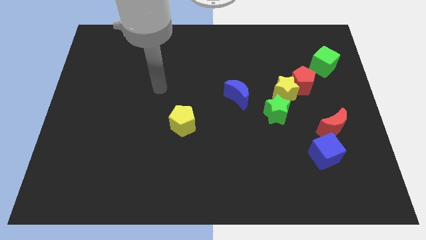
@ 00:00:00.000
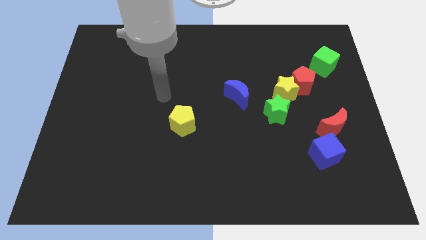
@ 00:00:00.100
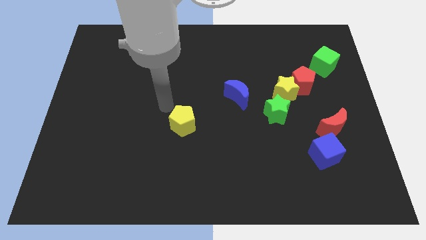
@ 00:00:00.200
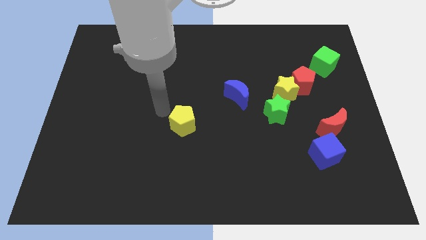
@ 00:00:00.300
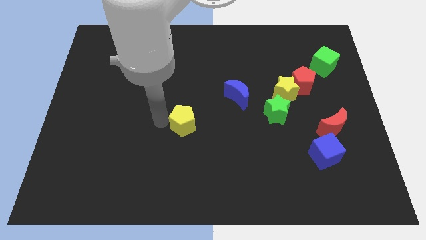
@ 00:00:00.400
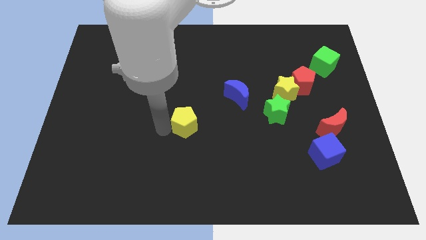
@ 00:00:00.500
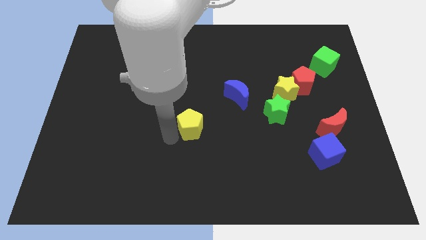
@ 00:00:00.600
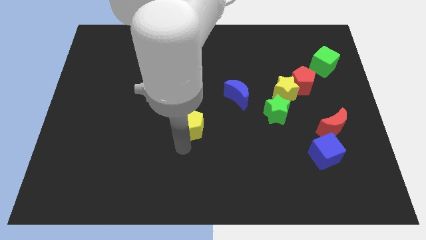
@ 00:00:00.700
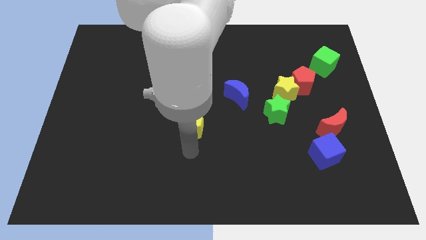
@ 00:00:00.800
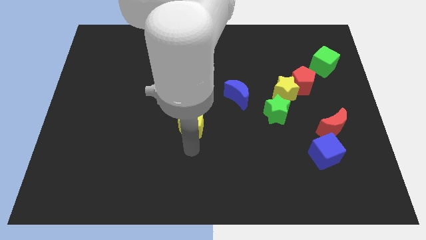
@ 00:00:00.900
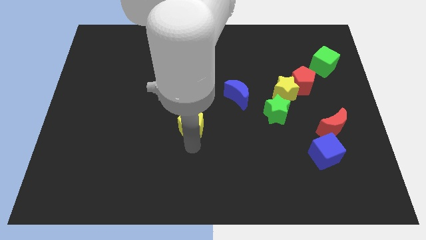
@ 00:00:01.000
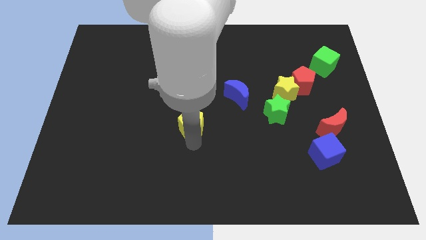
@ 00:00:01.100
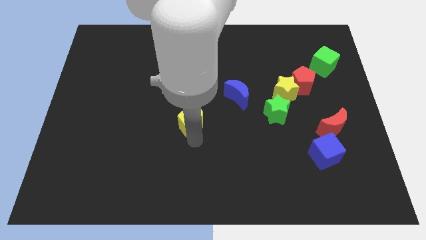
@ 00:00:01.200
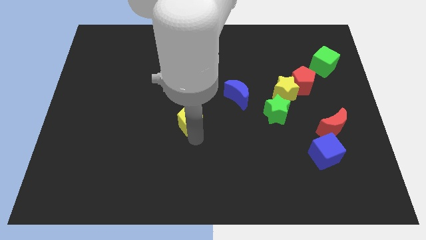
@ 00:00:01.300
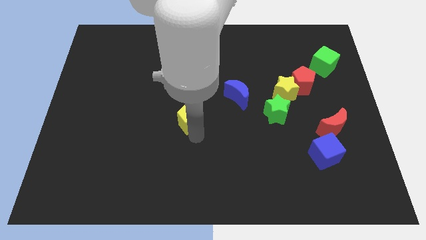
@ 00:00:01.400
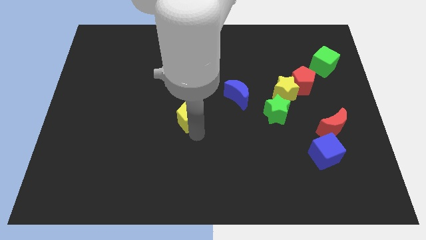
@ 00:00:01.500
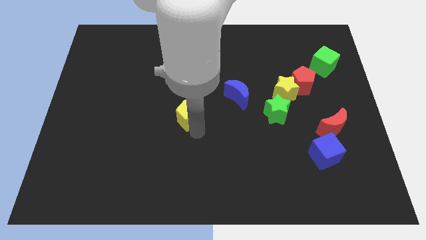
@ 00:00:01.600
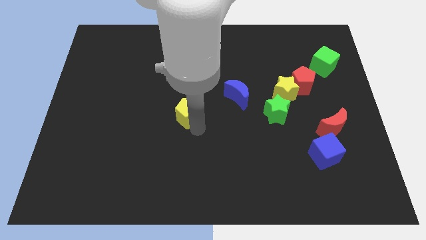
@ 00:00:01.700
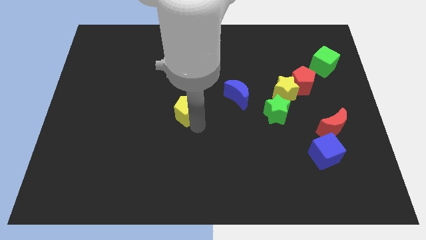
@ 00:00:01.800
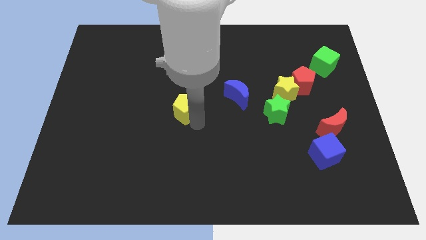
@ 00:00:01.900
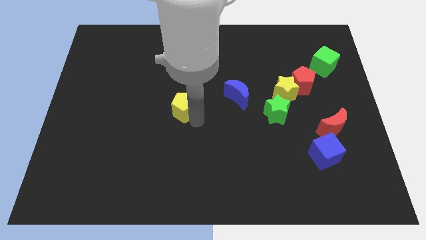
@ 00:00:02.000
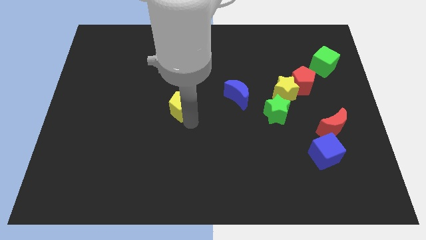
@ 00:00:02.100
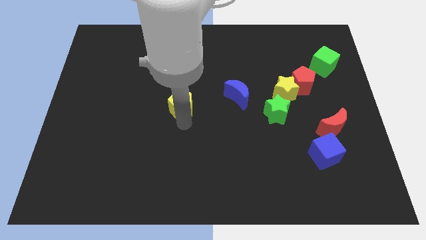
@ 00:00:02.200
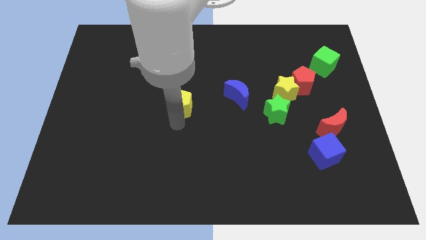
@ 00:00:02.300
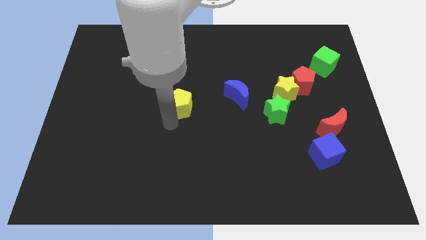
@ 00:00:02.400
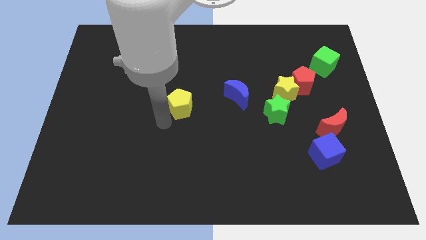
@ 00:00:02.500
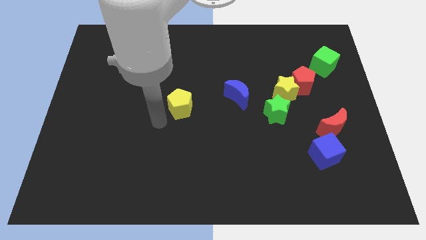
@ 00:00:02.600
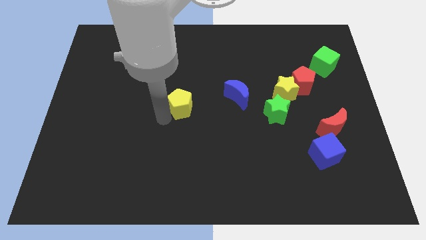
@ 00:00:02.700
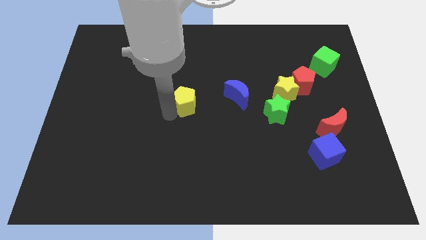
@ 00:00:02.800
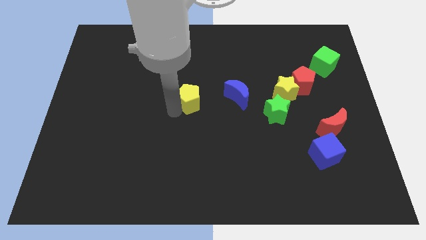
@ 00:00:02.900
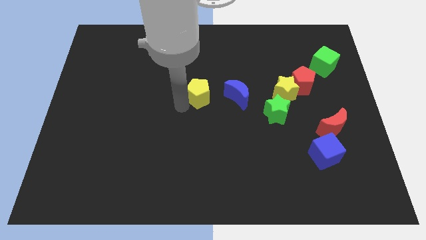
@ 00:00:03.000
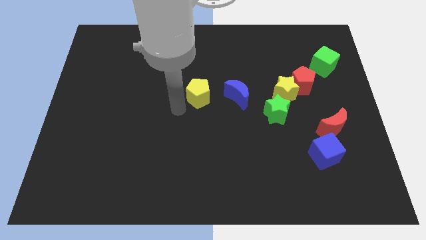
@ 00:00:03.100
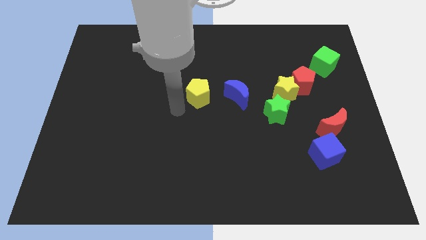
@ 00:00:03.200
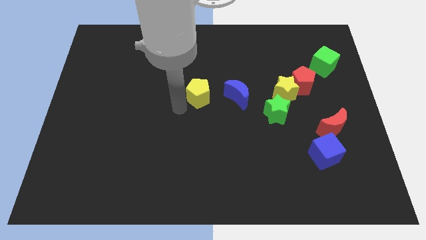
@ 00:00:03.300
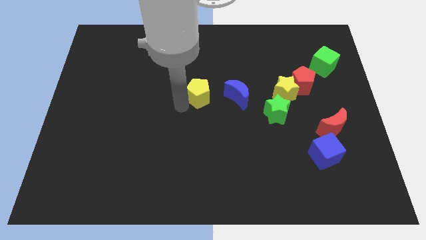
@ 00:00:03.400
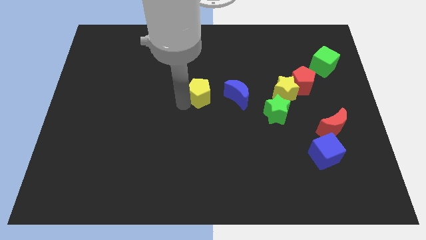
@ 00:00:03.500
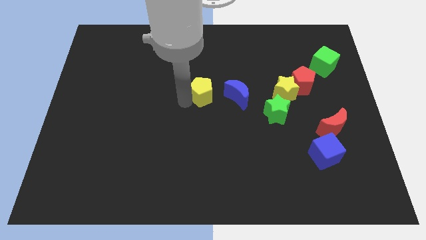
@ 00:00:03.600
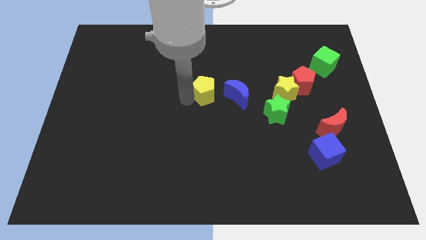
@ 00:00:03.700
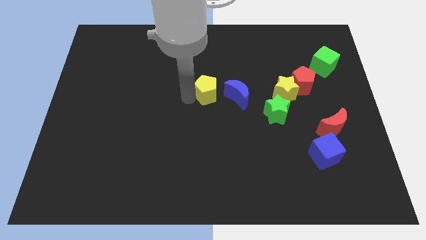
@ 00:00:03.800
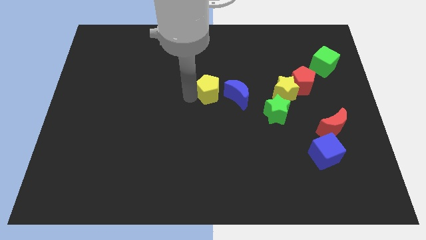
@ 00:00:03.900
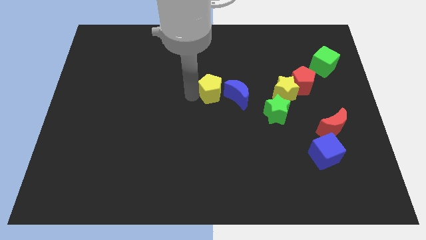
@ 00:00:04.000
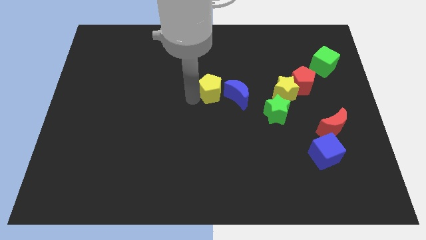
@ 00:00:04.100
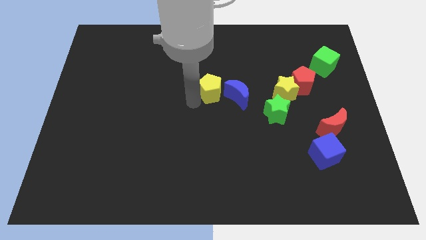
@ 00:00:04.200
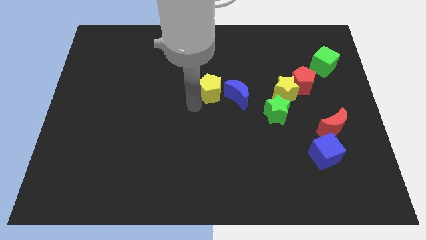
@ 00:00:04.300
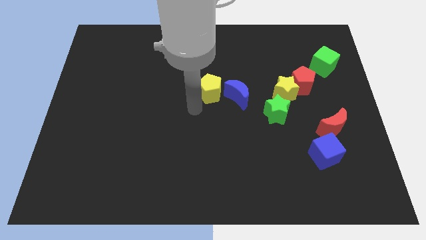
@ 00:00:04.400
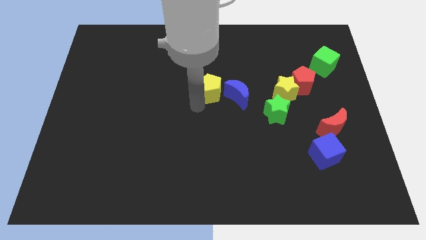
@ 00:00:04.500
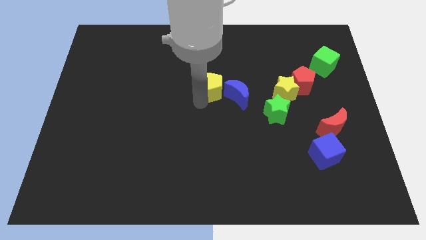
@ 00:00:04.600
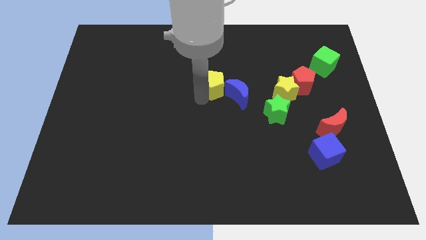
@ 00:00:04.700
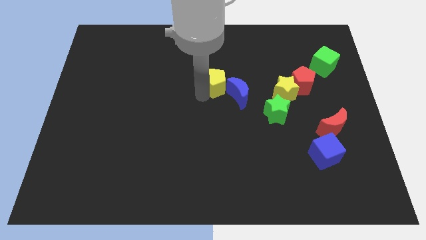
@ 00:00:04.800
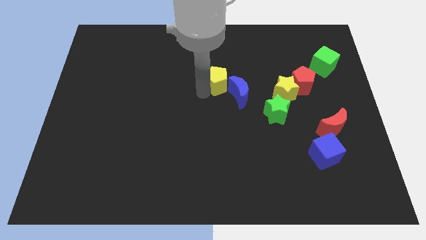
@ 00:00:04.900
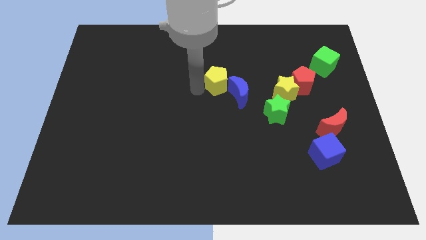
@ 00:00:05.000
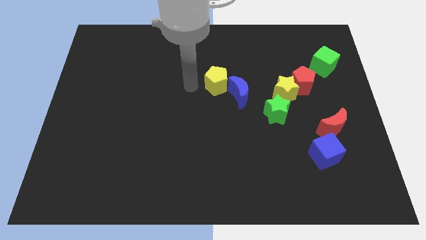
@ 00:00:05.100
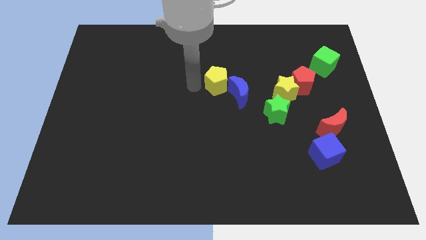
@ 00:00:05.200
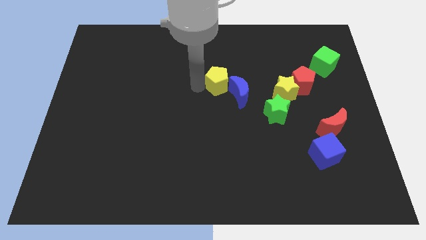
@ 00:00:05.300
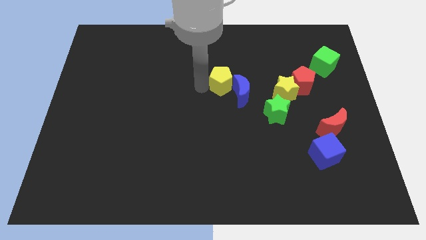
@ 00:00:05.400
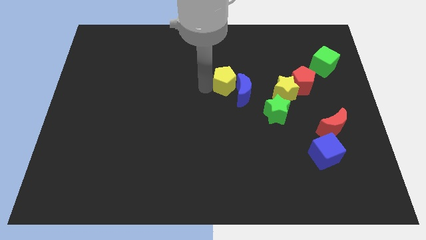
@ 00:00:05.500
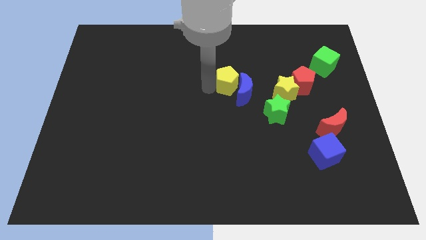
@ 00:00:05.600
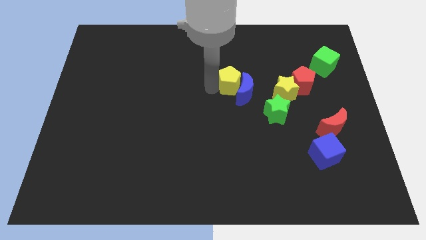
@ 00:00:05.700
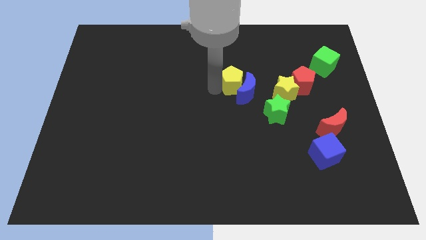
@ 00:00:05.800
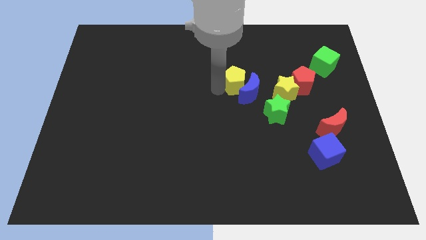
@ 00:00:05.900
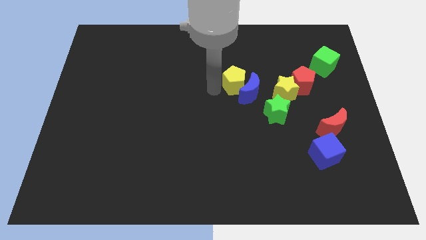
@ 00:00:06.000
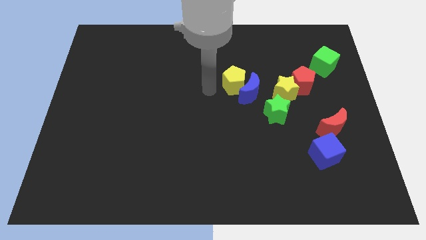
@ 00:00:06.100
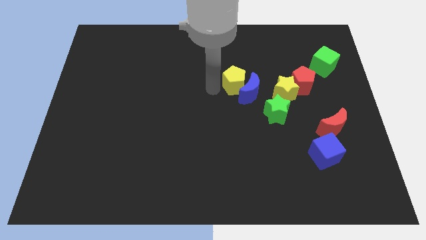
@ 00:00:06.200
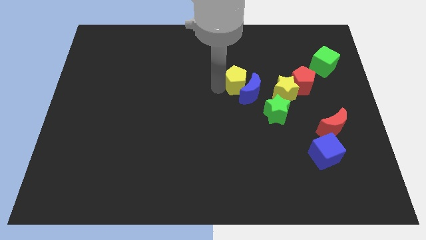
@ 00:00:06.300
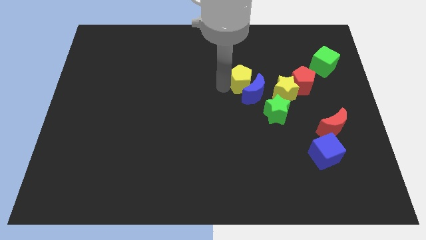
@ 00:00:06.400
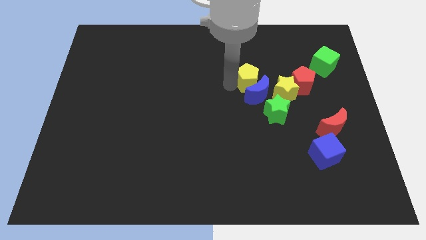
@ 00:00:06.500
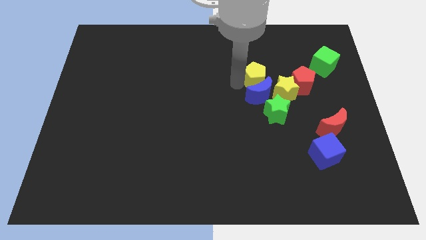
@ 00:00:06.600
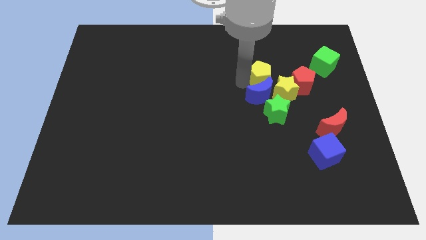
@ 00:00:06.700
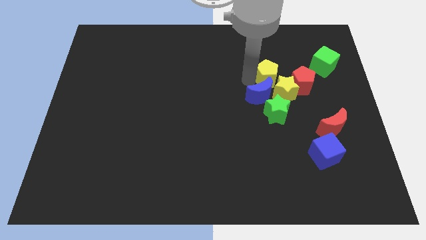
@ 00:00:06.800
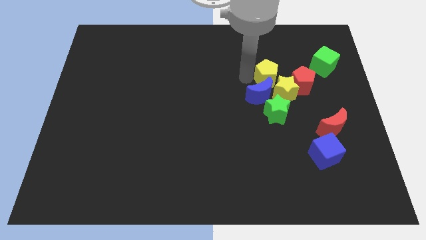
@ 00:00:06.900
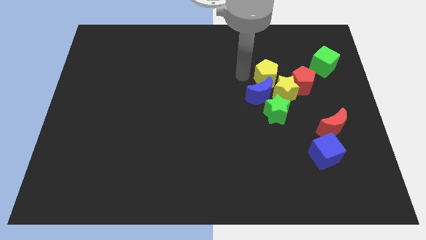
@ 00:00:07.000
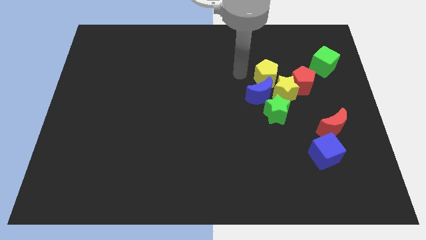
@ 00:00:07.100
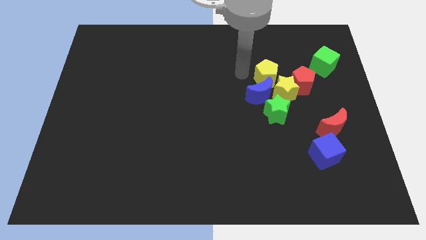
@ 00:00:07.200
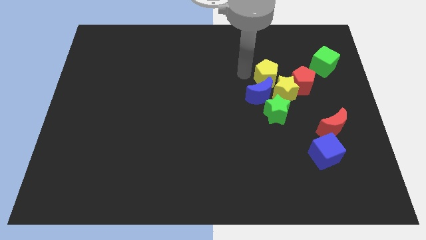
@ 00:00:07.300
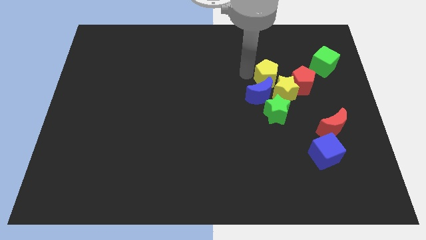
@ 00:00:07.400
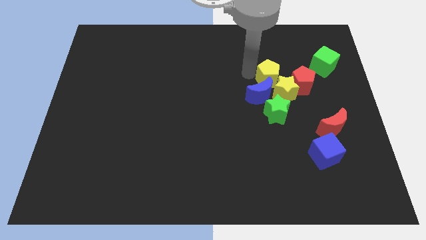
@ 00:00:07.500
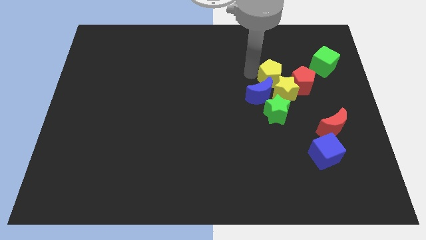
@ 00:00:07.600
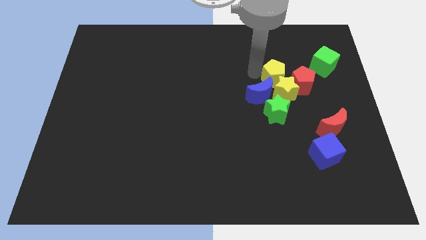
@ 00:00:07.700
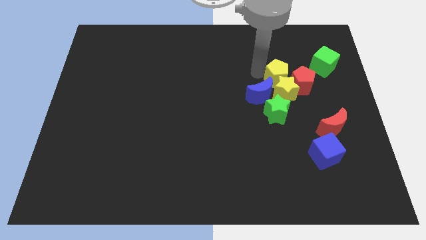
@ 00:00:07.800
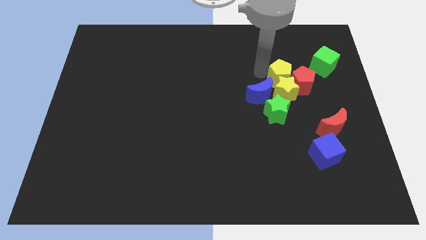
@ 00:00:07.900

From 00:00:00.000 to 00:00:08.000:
put the yellow pentagon to the red pentagon
